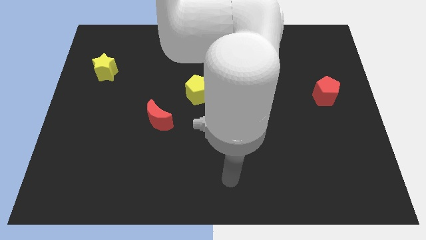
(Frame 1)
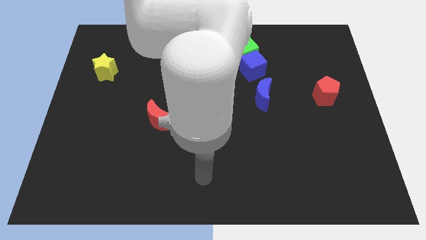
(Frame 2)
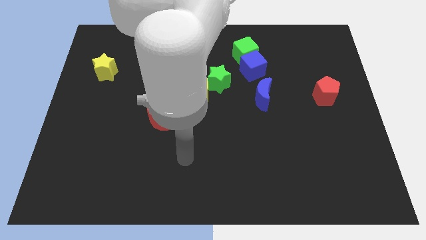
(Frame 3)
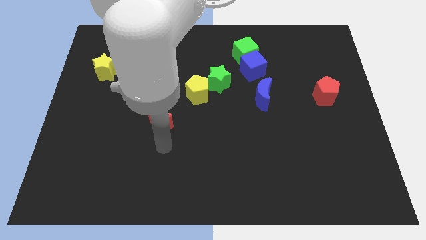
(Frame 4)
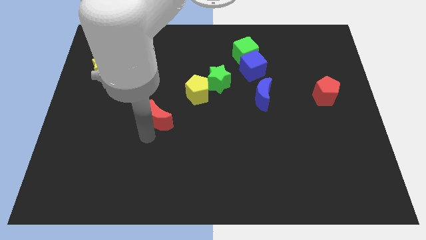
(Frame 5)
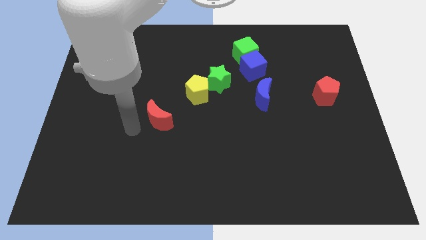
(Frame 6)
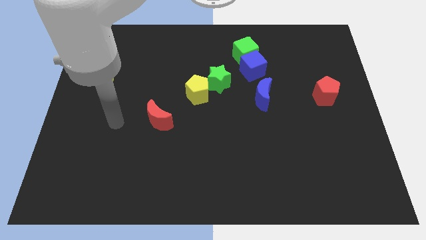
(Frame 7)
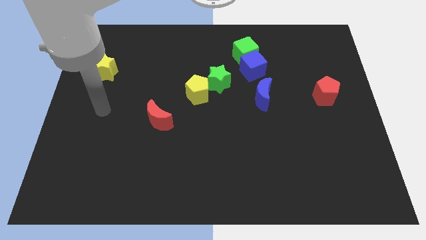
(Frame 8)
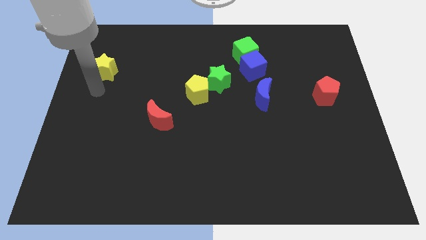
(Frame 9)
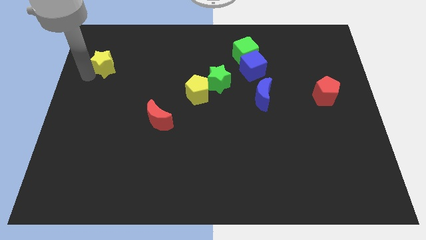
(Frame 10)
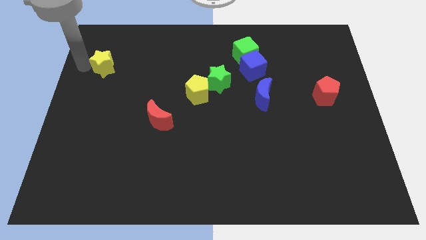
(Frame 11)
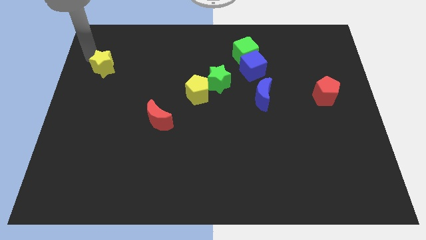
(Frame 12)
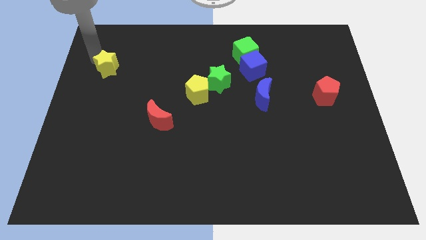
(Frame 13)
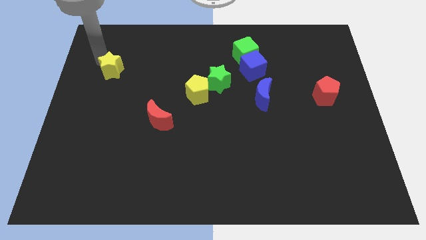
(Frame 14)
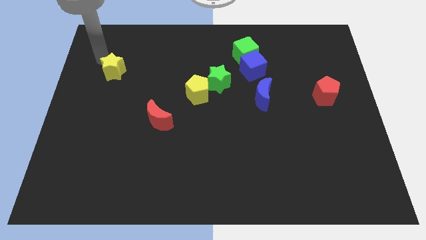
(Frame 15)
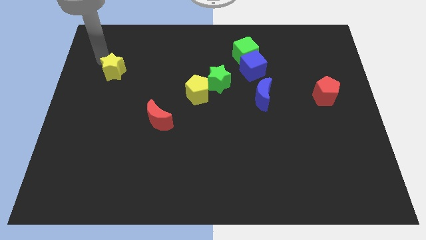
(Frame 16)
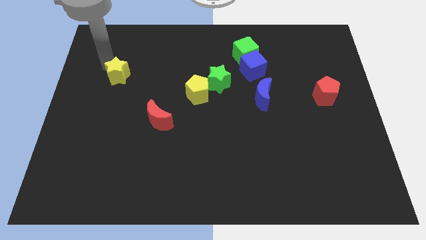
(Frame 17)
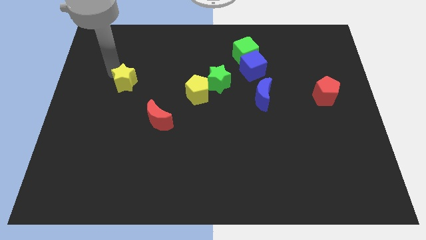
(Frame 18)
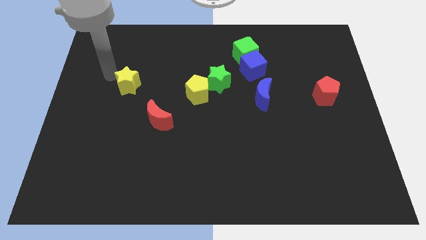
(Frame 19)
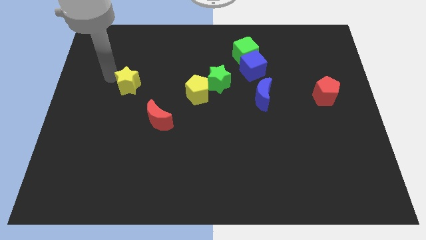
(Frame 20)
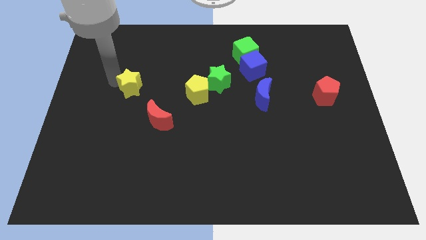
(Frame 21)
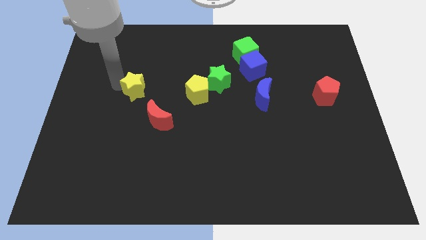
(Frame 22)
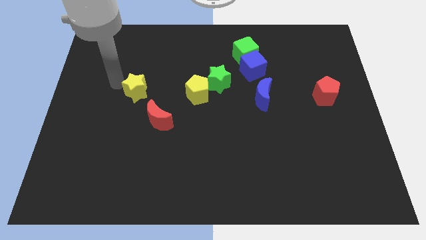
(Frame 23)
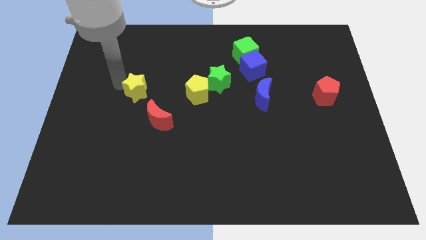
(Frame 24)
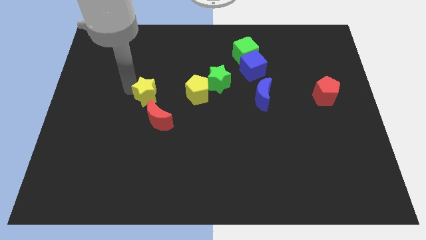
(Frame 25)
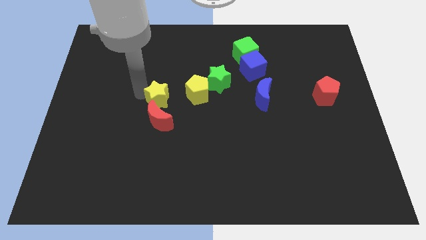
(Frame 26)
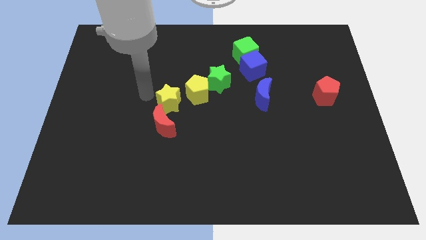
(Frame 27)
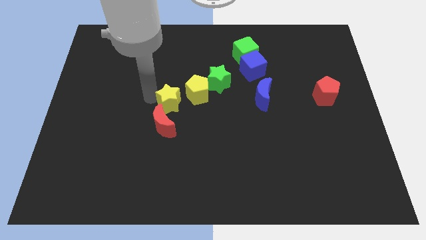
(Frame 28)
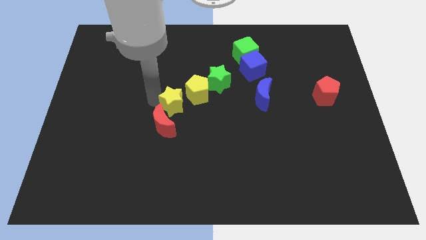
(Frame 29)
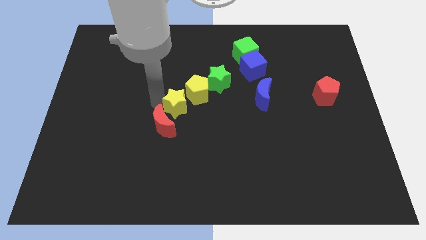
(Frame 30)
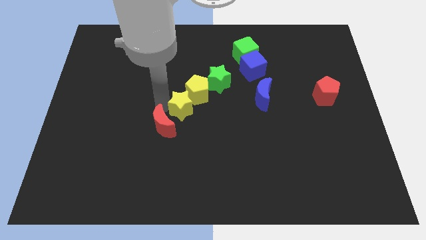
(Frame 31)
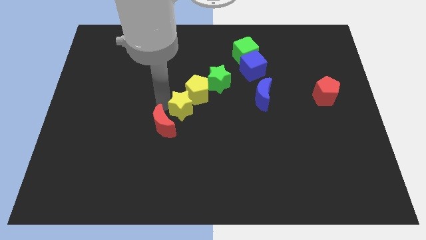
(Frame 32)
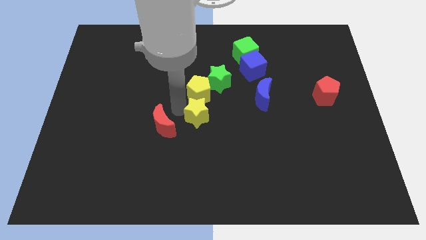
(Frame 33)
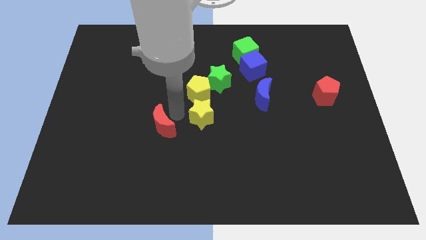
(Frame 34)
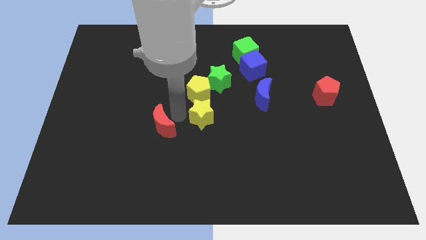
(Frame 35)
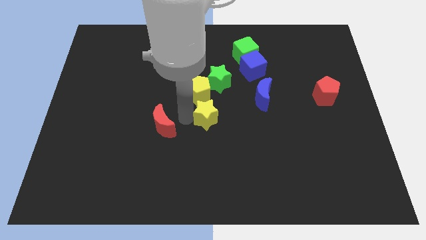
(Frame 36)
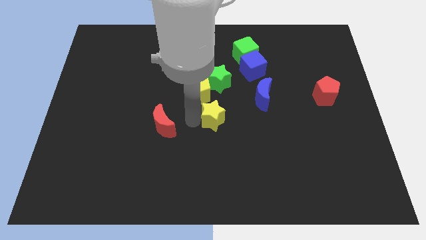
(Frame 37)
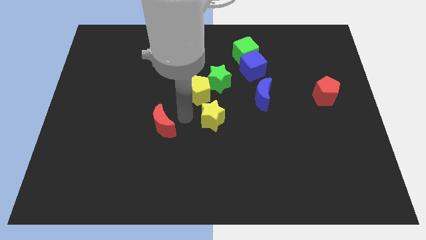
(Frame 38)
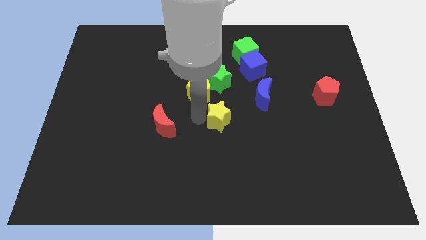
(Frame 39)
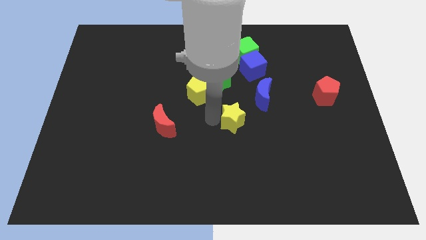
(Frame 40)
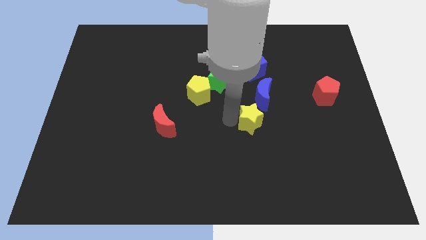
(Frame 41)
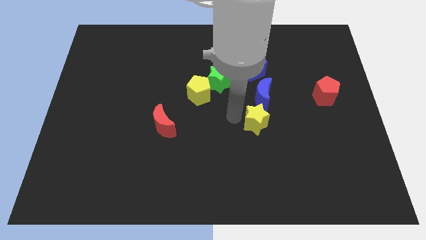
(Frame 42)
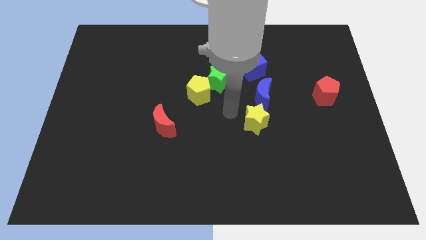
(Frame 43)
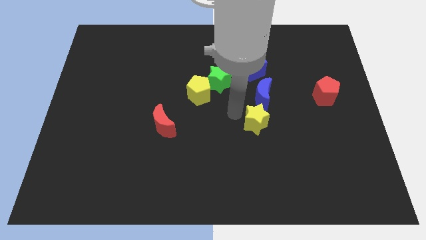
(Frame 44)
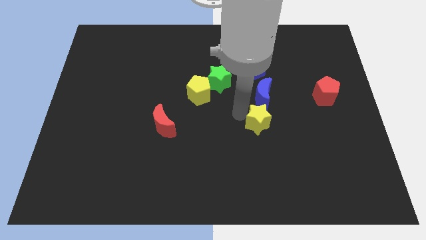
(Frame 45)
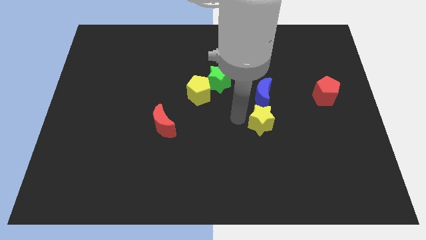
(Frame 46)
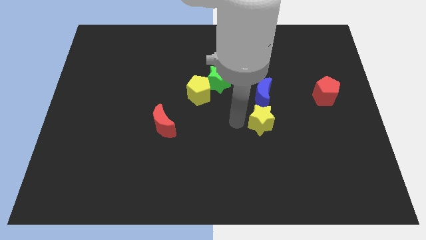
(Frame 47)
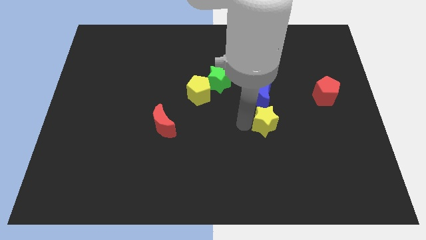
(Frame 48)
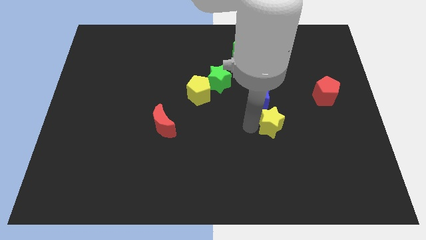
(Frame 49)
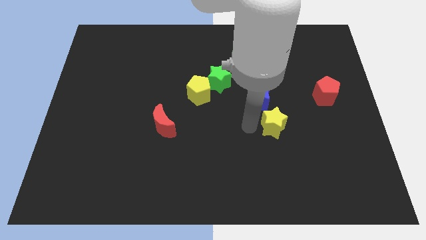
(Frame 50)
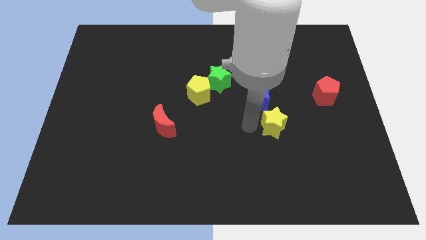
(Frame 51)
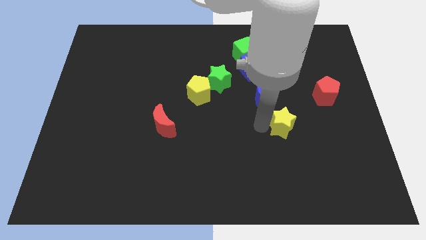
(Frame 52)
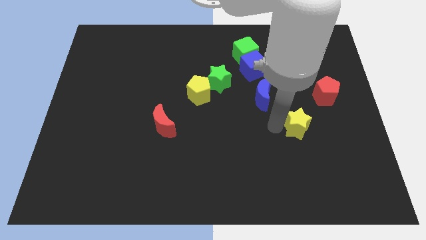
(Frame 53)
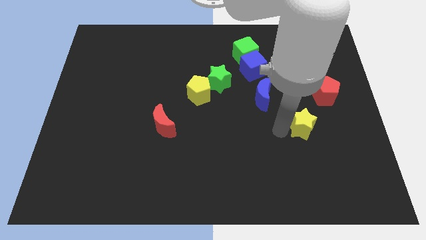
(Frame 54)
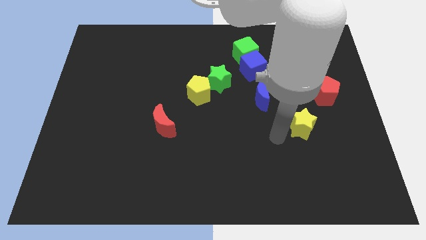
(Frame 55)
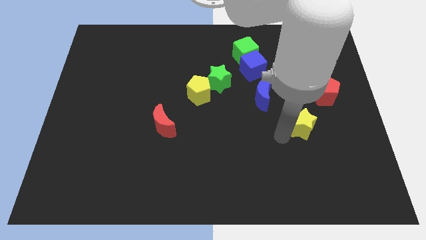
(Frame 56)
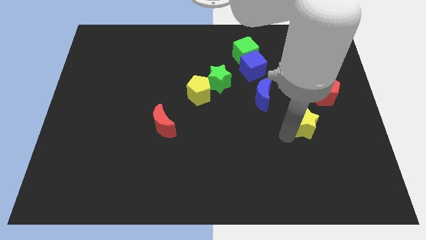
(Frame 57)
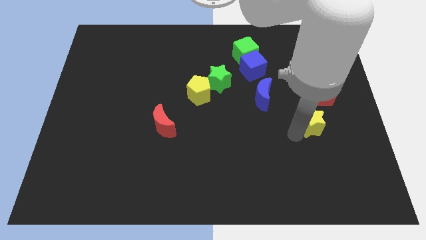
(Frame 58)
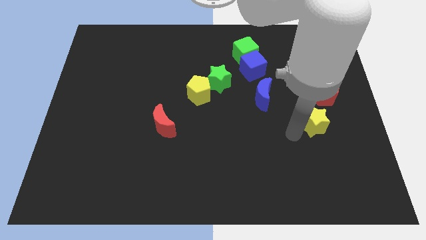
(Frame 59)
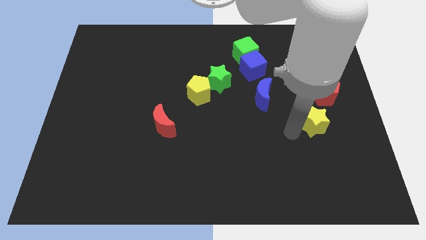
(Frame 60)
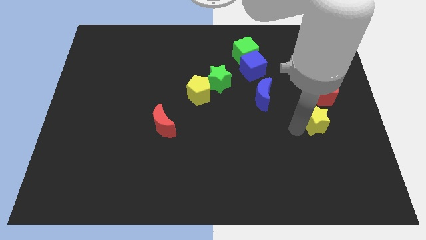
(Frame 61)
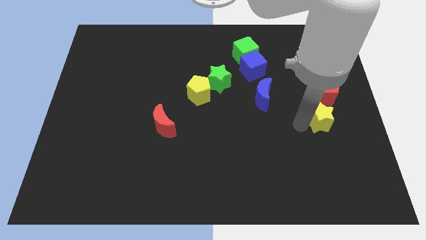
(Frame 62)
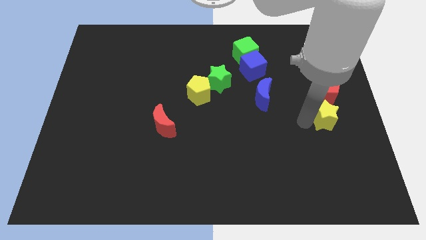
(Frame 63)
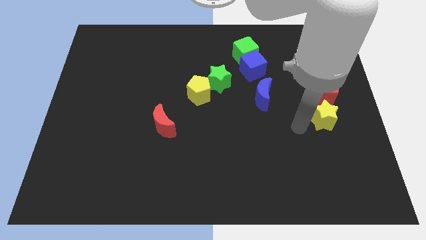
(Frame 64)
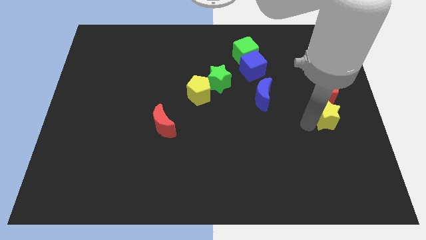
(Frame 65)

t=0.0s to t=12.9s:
move the yellow star to the right side of the board
